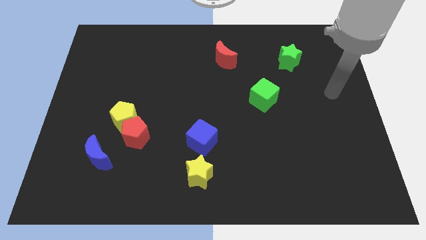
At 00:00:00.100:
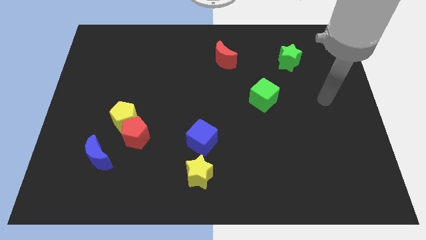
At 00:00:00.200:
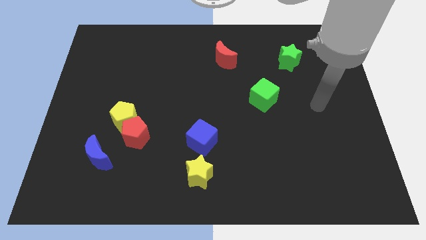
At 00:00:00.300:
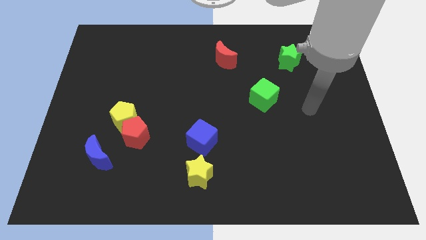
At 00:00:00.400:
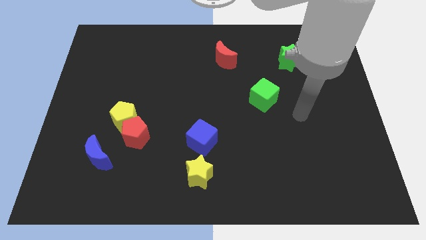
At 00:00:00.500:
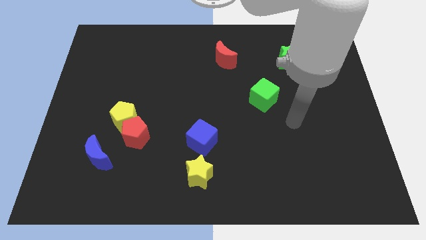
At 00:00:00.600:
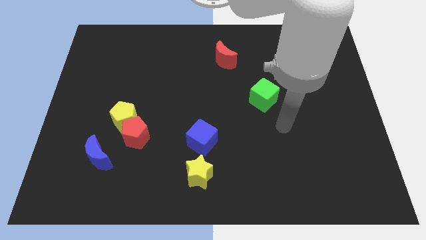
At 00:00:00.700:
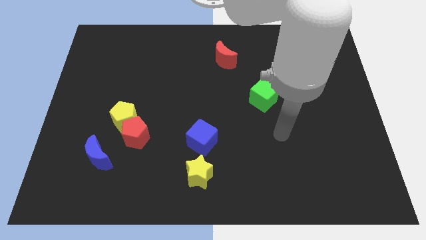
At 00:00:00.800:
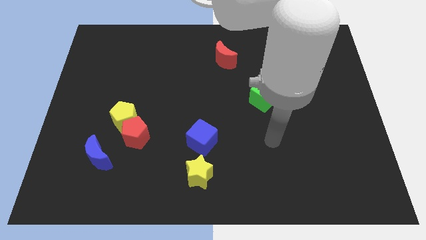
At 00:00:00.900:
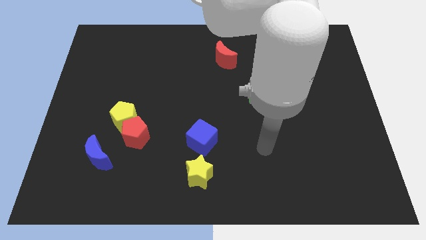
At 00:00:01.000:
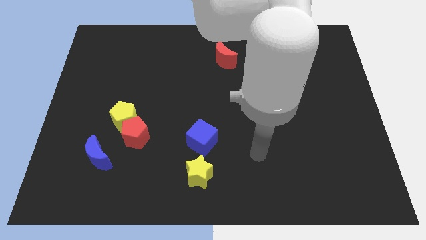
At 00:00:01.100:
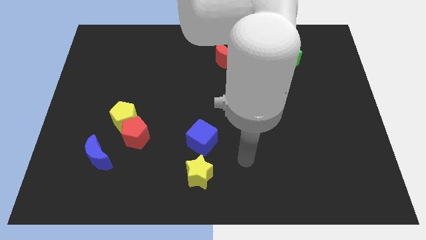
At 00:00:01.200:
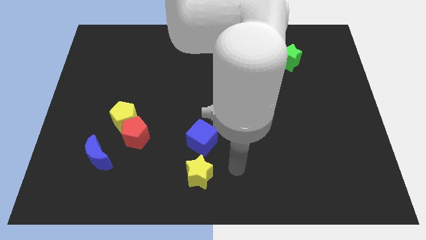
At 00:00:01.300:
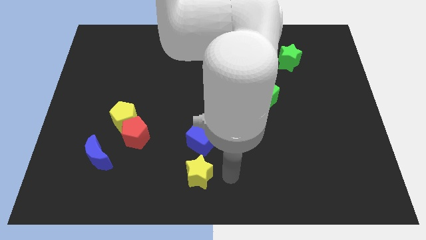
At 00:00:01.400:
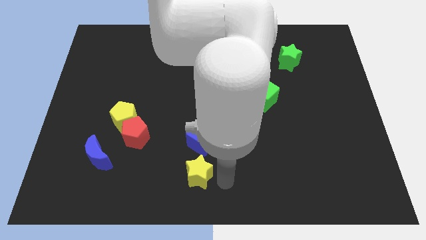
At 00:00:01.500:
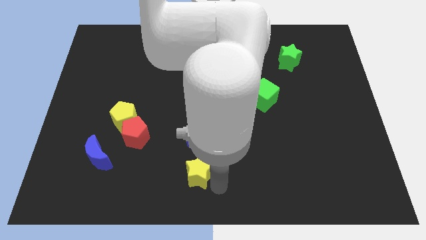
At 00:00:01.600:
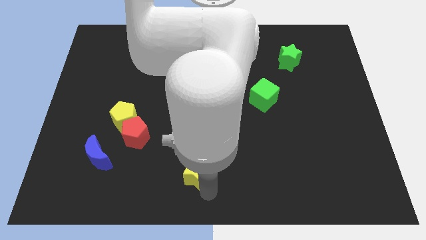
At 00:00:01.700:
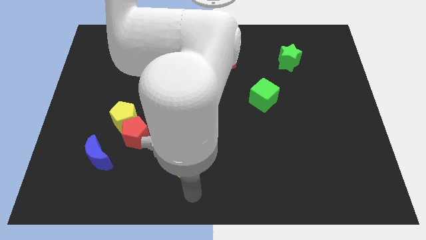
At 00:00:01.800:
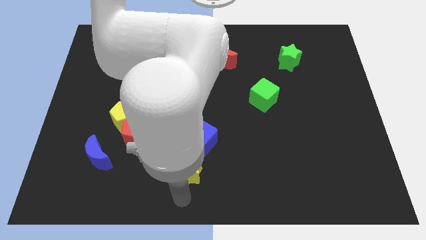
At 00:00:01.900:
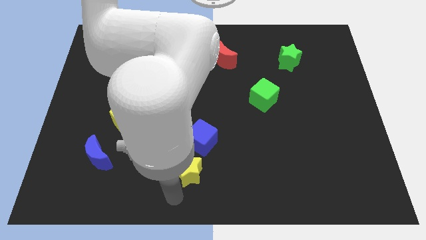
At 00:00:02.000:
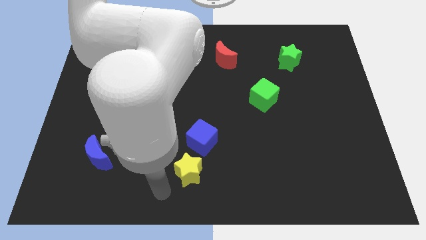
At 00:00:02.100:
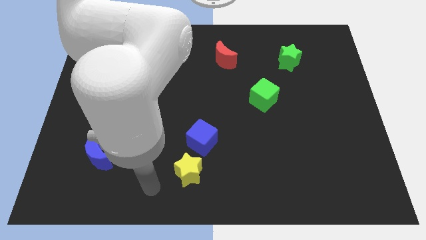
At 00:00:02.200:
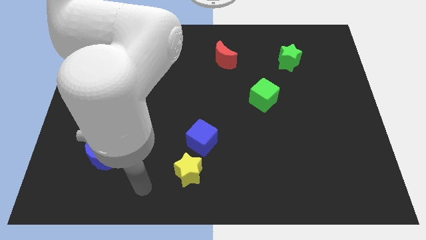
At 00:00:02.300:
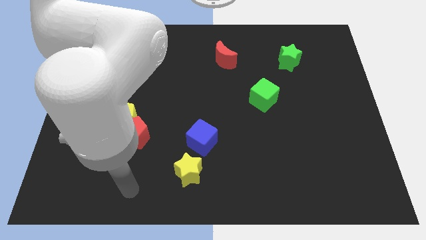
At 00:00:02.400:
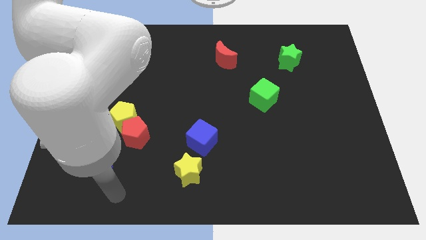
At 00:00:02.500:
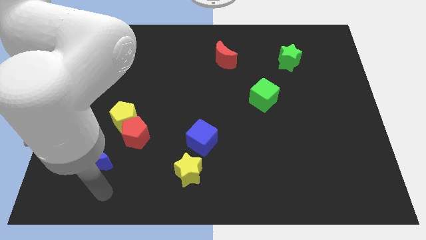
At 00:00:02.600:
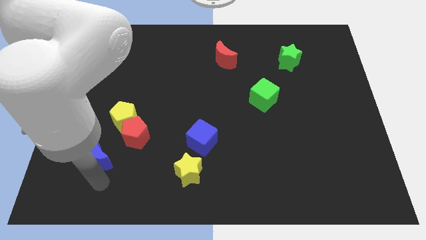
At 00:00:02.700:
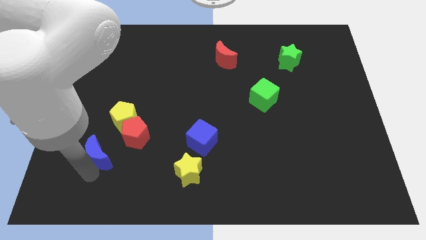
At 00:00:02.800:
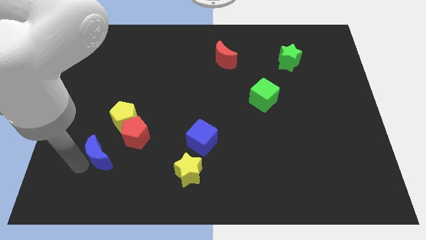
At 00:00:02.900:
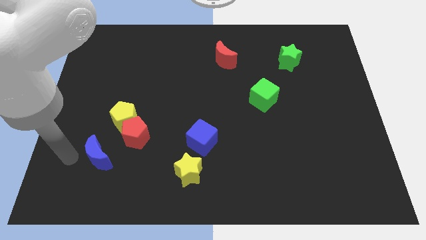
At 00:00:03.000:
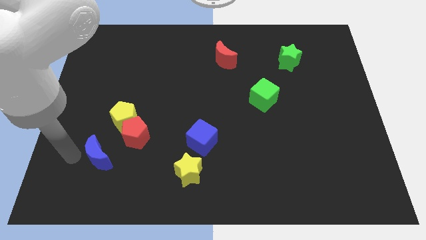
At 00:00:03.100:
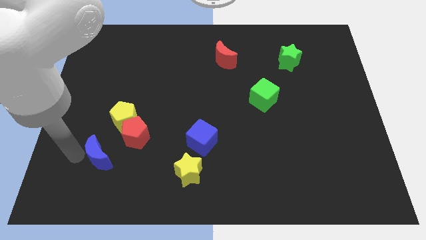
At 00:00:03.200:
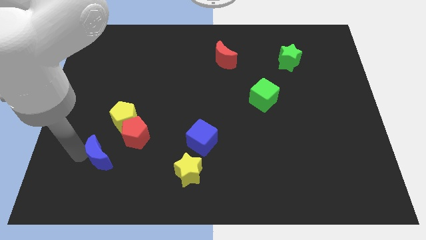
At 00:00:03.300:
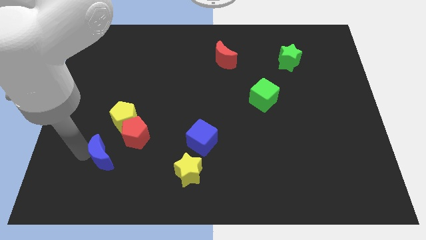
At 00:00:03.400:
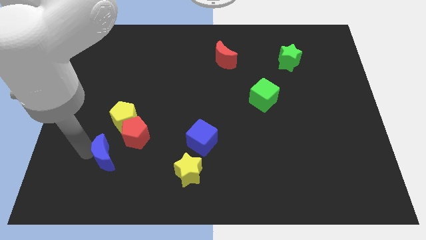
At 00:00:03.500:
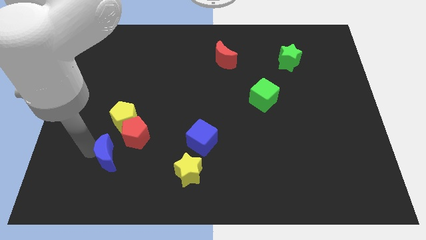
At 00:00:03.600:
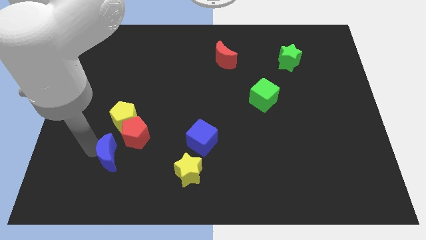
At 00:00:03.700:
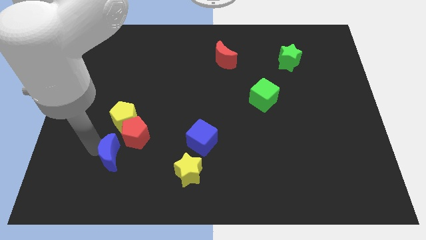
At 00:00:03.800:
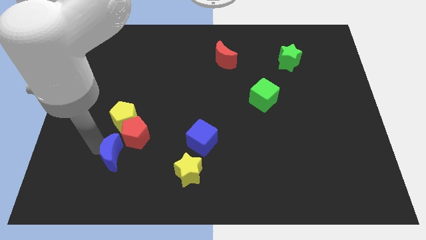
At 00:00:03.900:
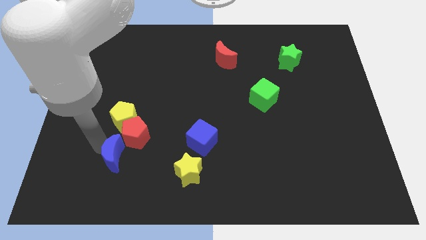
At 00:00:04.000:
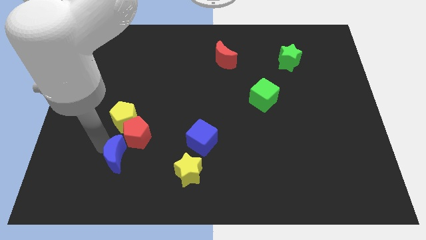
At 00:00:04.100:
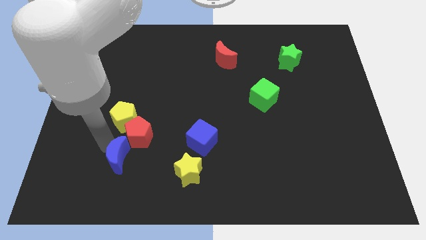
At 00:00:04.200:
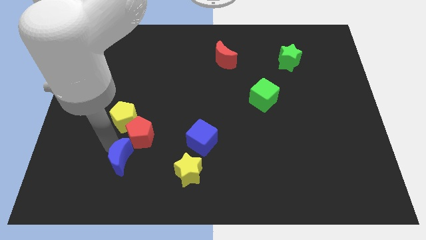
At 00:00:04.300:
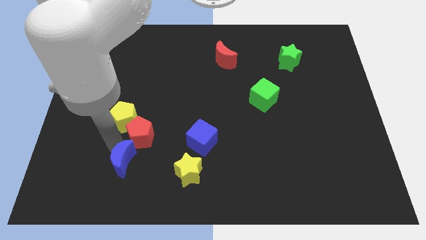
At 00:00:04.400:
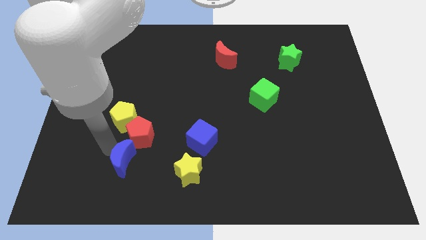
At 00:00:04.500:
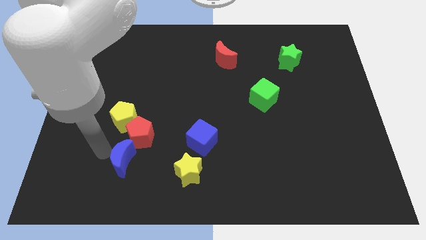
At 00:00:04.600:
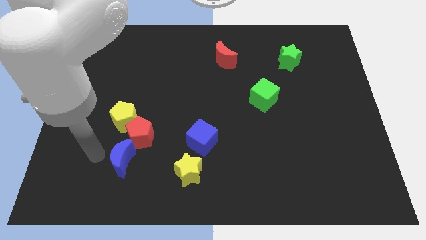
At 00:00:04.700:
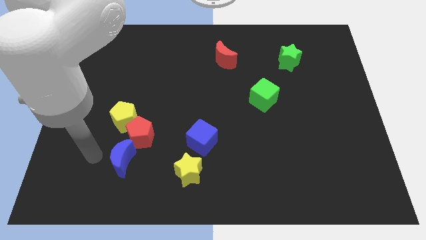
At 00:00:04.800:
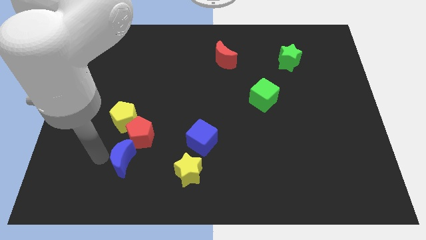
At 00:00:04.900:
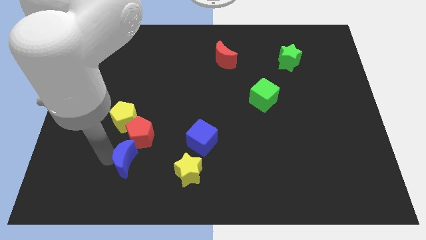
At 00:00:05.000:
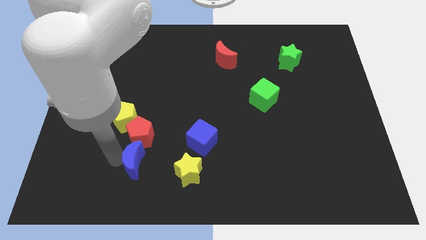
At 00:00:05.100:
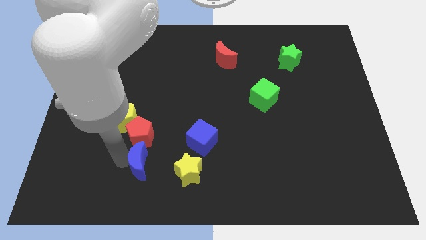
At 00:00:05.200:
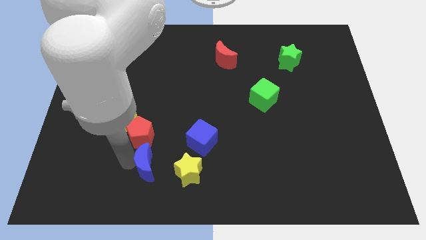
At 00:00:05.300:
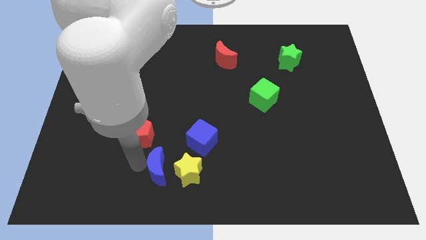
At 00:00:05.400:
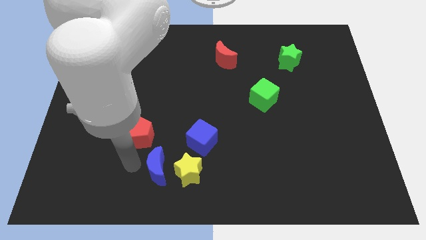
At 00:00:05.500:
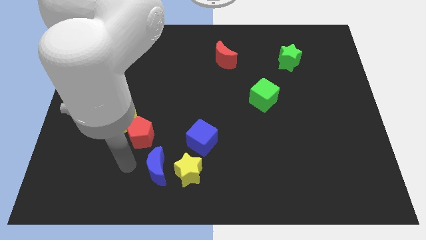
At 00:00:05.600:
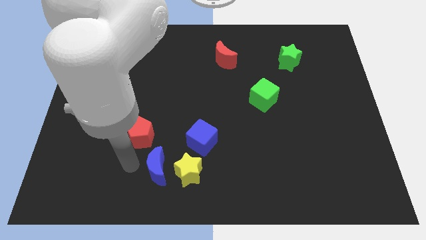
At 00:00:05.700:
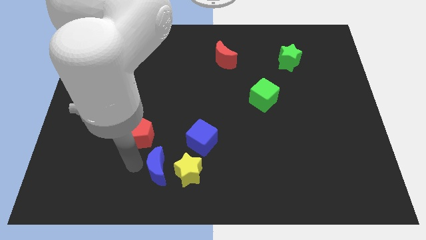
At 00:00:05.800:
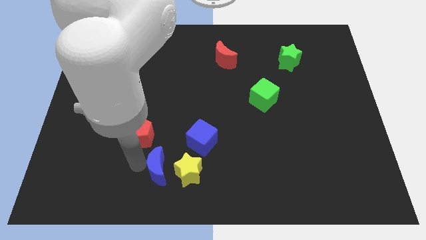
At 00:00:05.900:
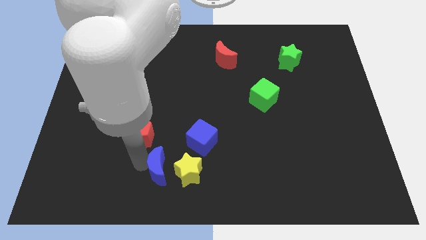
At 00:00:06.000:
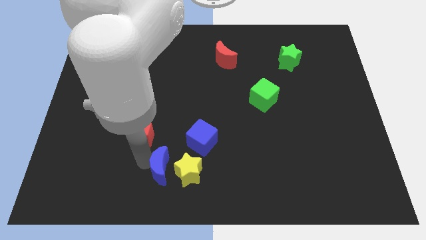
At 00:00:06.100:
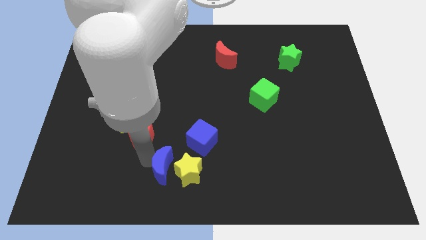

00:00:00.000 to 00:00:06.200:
put the blue moon next to the yellow star
